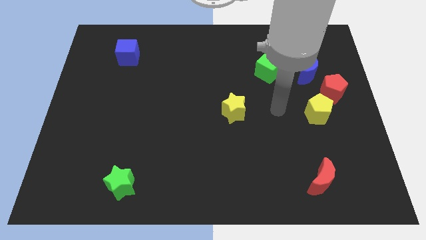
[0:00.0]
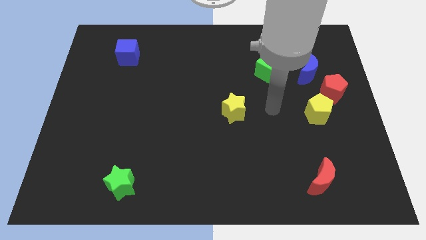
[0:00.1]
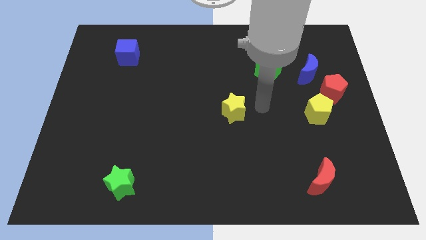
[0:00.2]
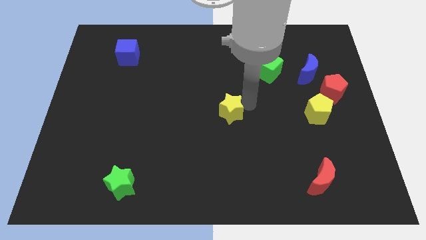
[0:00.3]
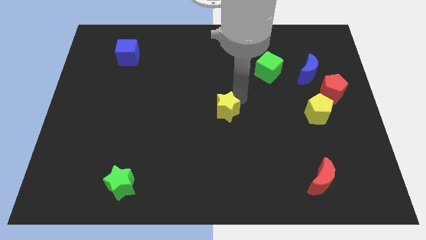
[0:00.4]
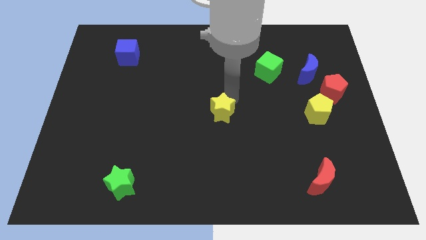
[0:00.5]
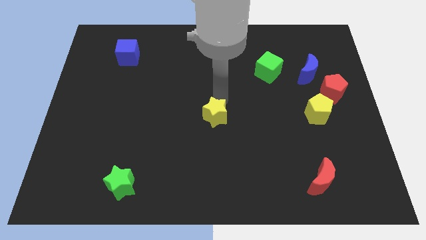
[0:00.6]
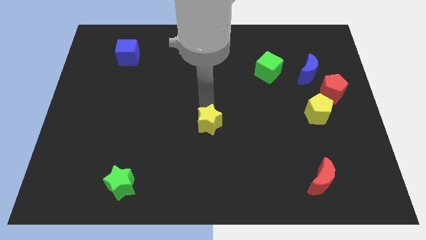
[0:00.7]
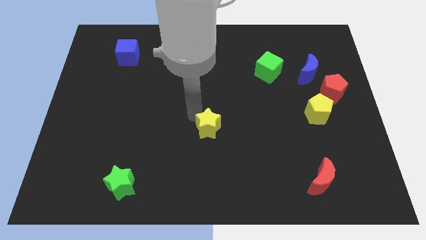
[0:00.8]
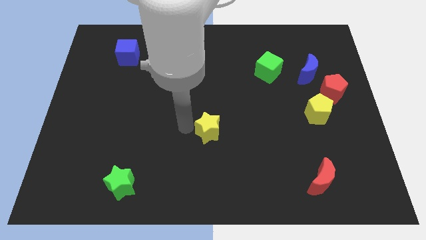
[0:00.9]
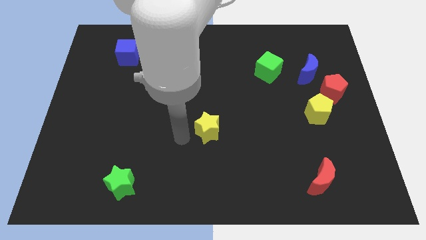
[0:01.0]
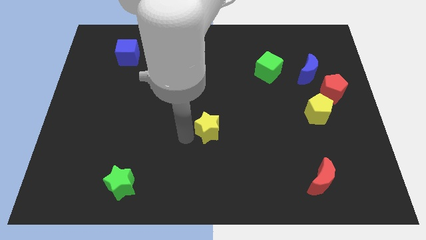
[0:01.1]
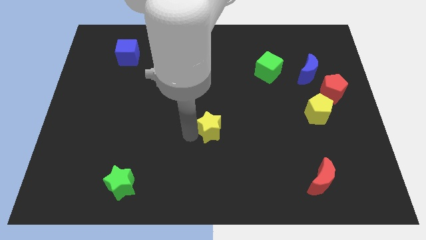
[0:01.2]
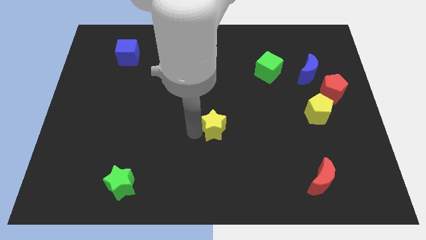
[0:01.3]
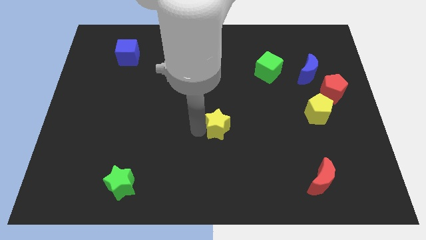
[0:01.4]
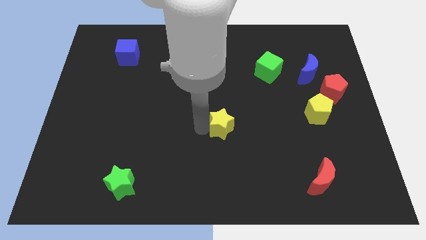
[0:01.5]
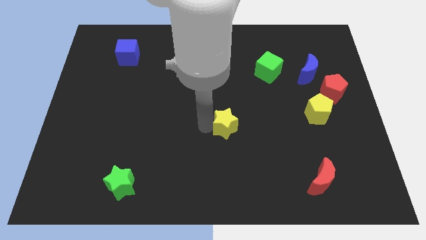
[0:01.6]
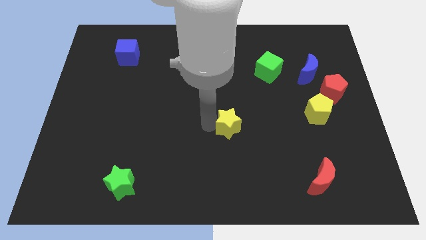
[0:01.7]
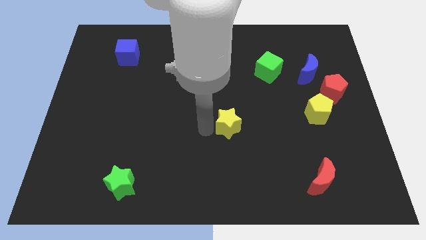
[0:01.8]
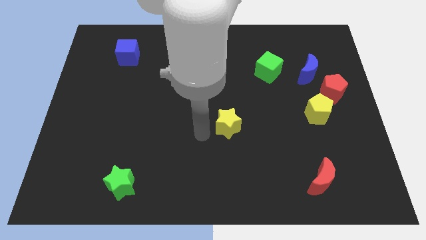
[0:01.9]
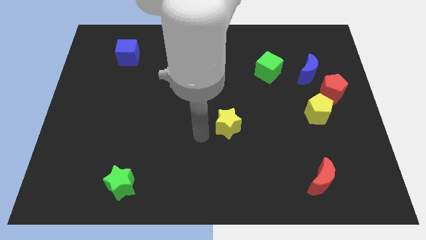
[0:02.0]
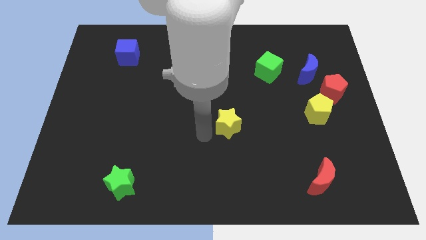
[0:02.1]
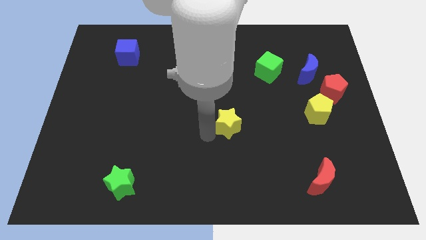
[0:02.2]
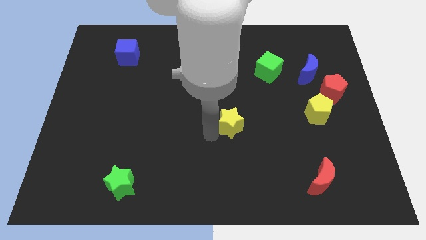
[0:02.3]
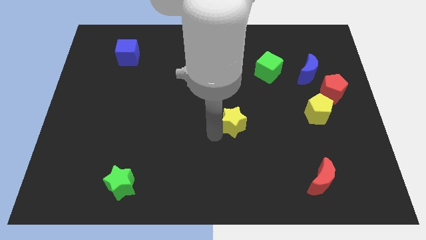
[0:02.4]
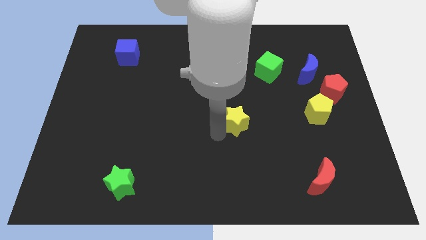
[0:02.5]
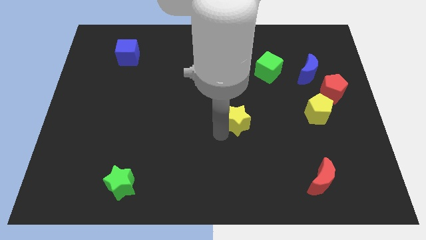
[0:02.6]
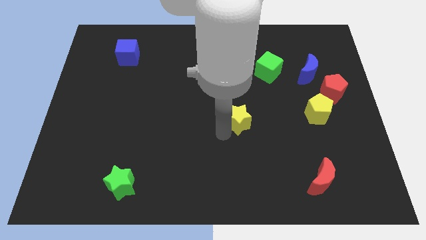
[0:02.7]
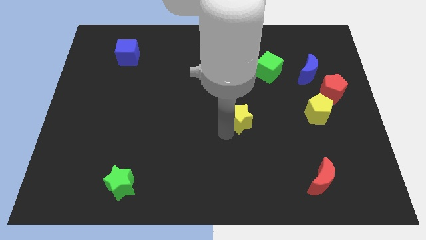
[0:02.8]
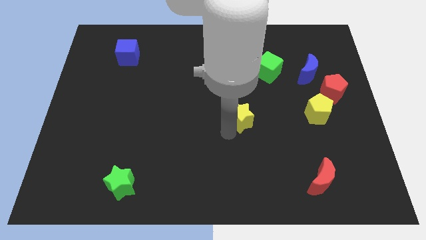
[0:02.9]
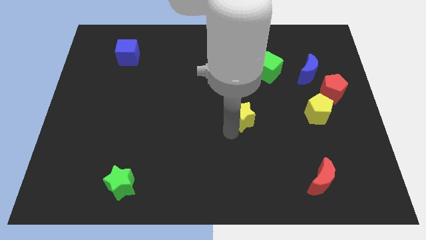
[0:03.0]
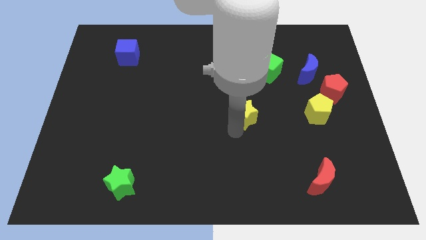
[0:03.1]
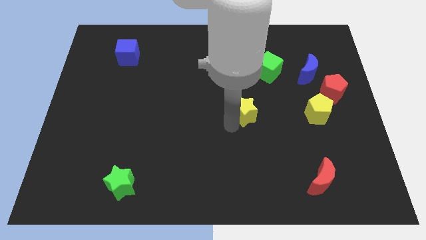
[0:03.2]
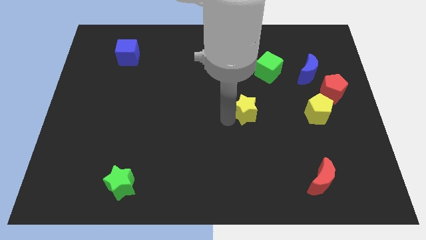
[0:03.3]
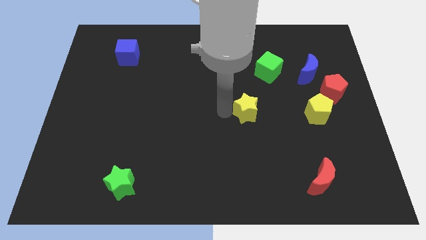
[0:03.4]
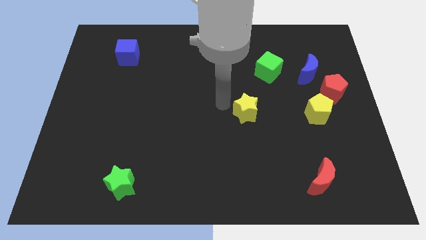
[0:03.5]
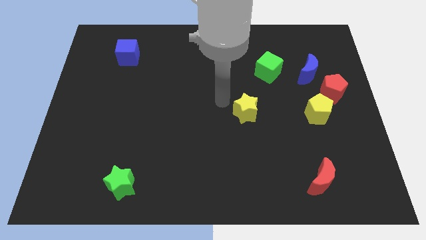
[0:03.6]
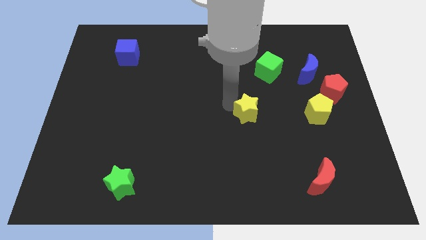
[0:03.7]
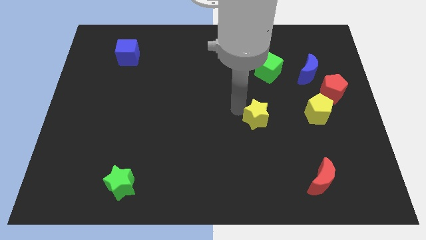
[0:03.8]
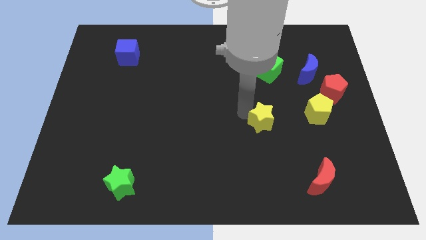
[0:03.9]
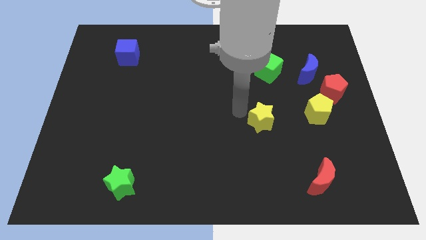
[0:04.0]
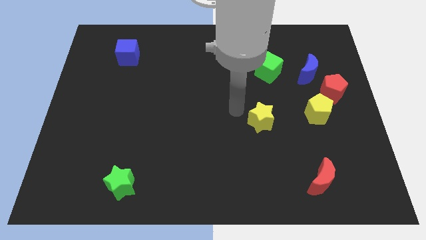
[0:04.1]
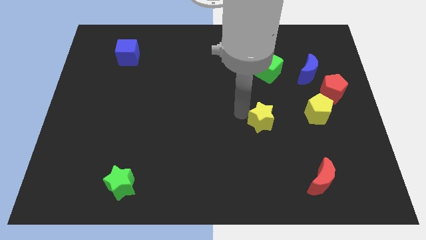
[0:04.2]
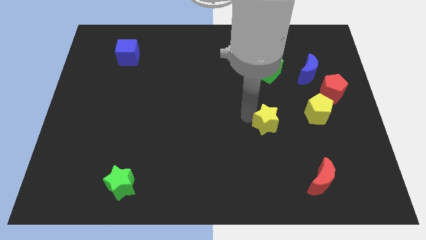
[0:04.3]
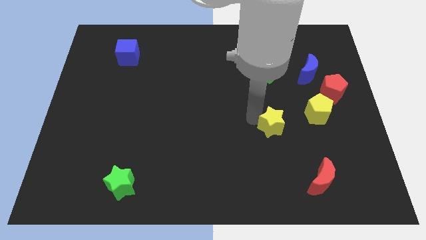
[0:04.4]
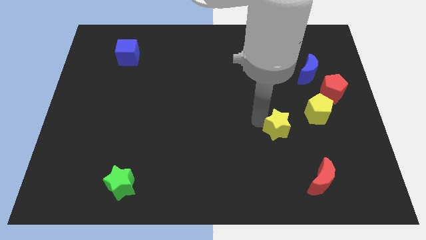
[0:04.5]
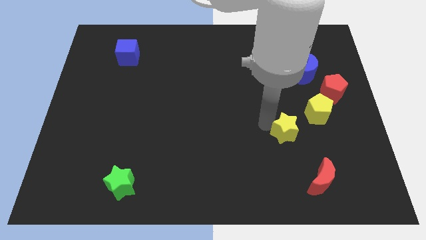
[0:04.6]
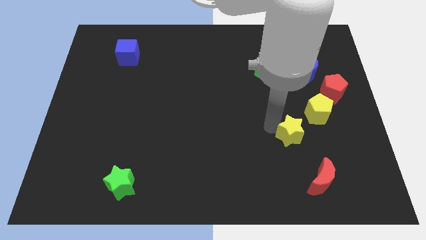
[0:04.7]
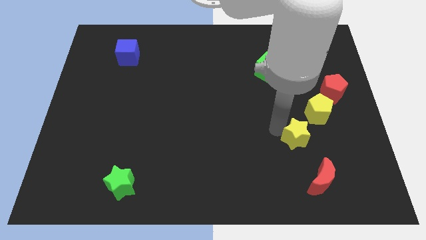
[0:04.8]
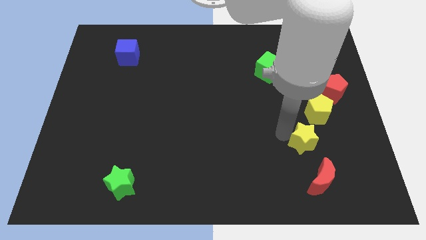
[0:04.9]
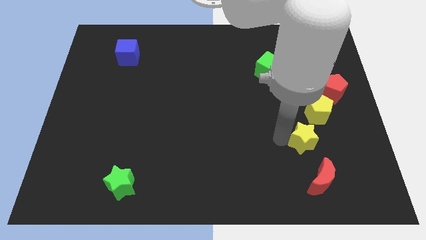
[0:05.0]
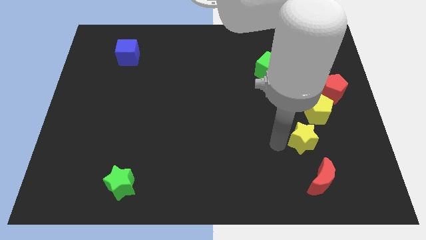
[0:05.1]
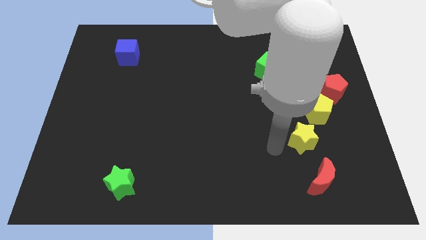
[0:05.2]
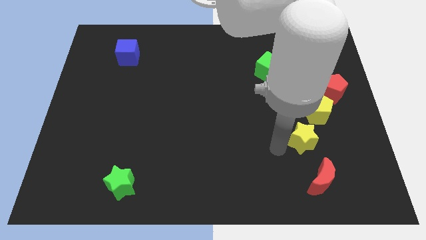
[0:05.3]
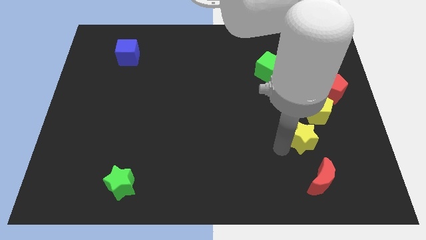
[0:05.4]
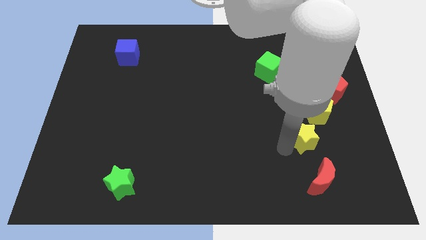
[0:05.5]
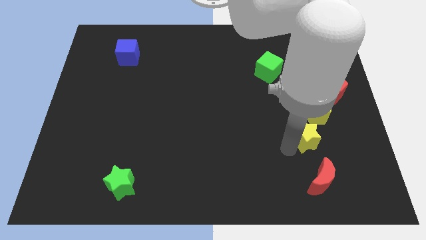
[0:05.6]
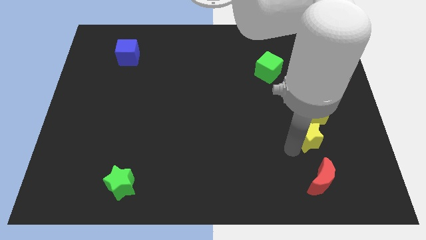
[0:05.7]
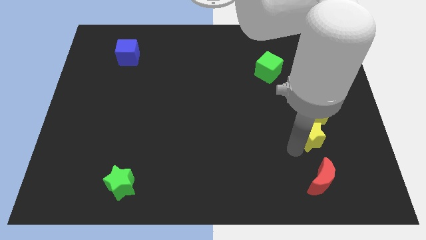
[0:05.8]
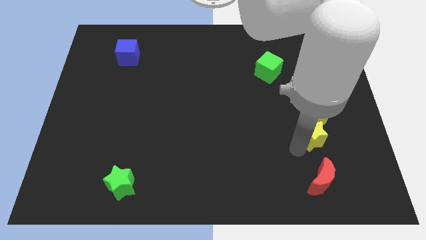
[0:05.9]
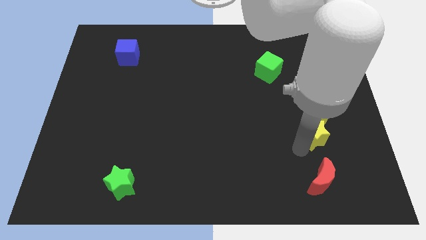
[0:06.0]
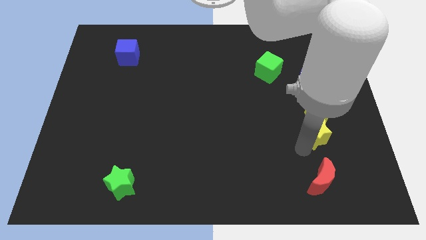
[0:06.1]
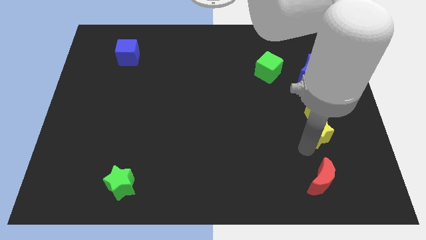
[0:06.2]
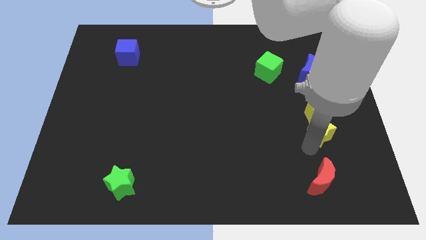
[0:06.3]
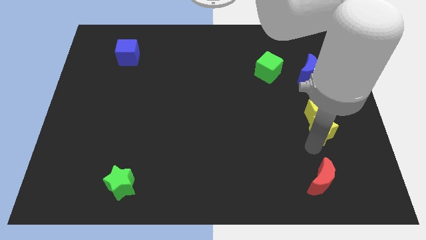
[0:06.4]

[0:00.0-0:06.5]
push the yellow star below the red pentagon
